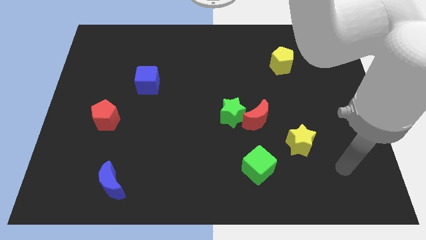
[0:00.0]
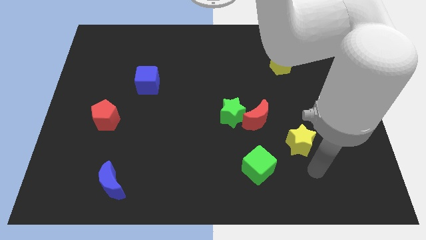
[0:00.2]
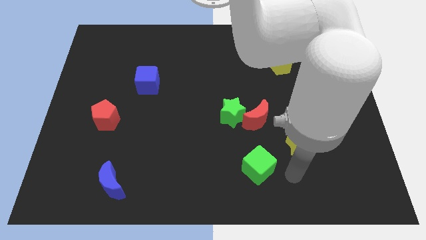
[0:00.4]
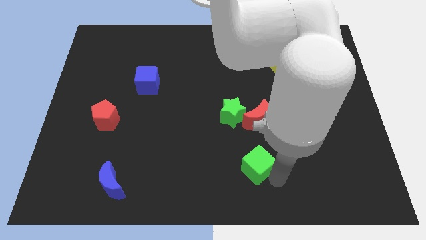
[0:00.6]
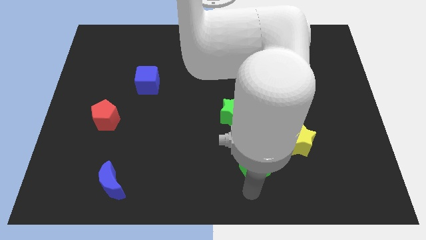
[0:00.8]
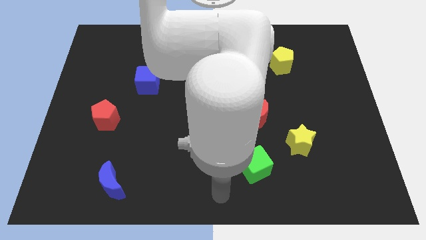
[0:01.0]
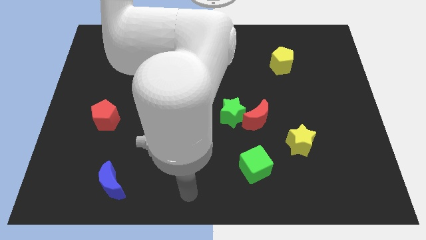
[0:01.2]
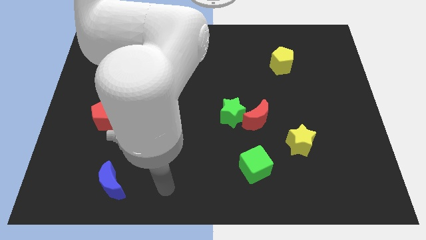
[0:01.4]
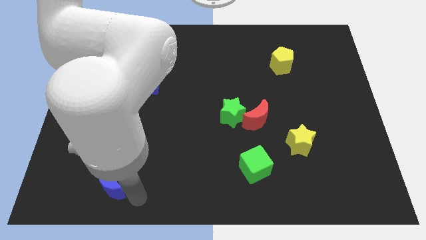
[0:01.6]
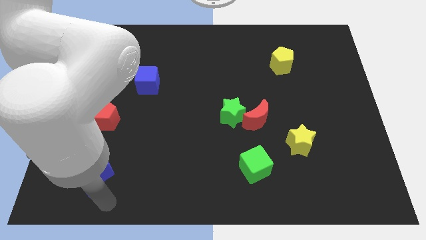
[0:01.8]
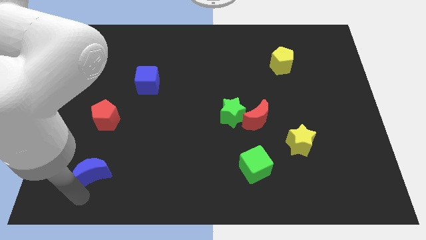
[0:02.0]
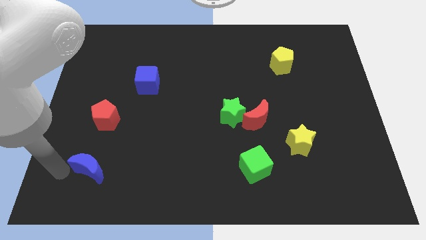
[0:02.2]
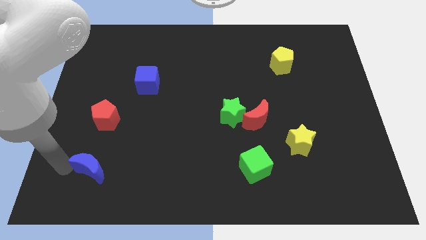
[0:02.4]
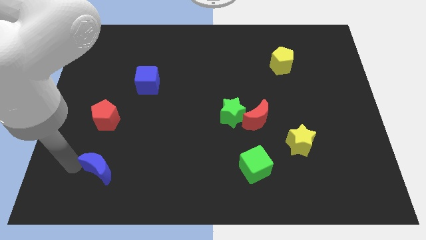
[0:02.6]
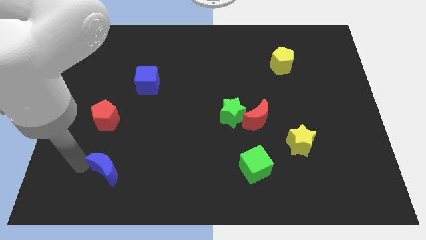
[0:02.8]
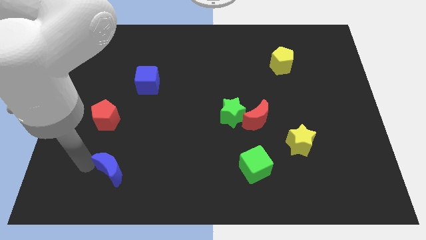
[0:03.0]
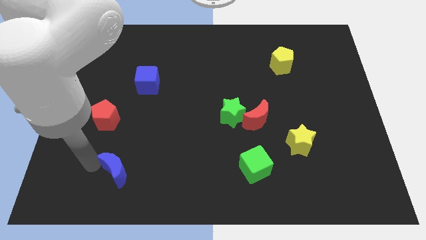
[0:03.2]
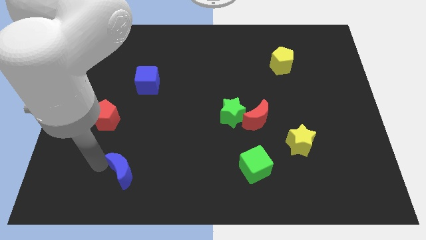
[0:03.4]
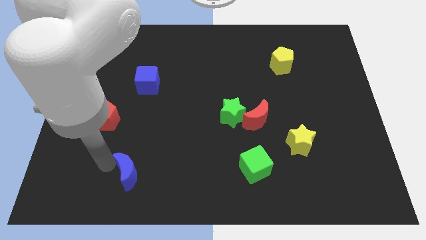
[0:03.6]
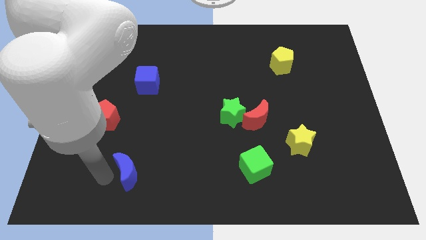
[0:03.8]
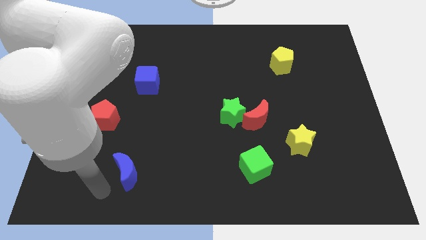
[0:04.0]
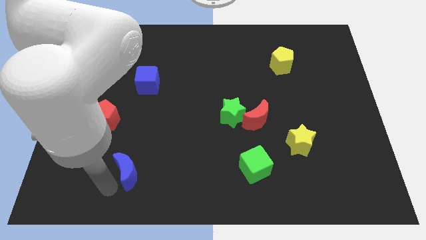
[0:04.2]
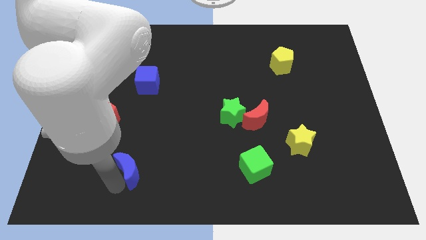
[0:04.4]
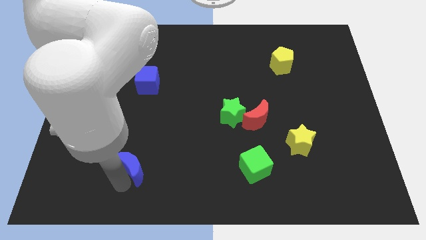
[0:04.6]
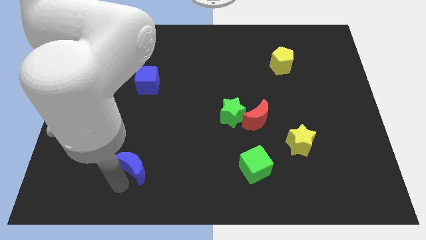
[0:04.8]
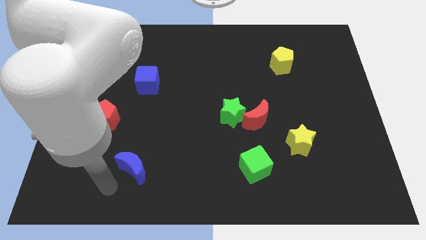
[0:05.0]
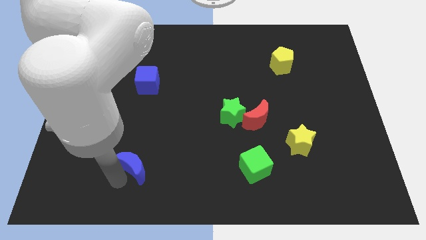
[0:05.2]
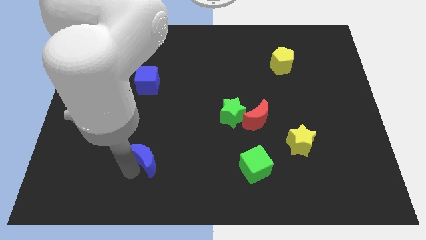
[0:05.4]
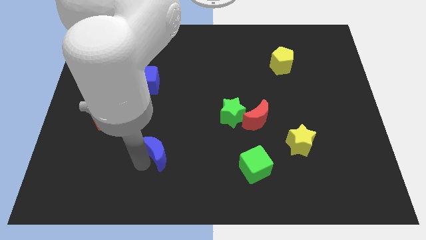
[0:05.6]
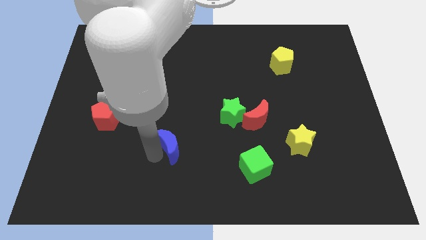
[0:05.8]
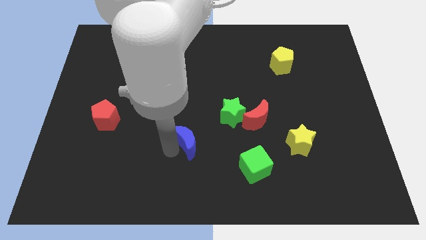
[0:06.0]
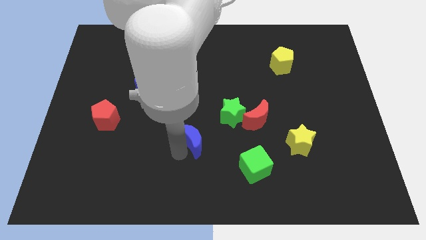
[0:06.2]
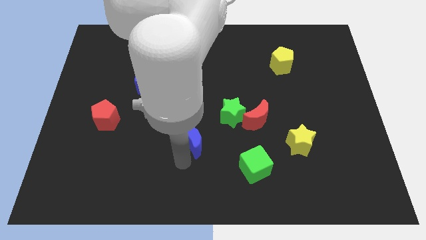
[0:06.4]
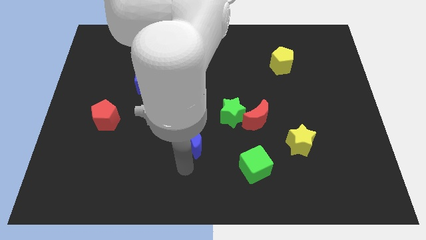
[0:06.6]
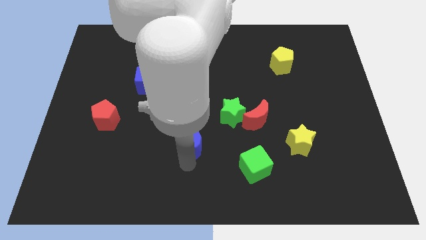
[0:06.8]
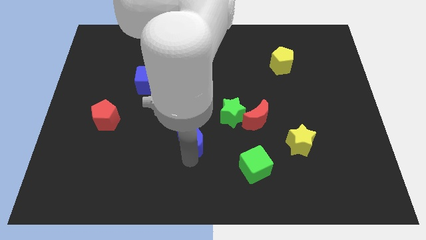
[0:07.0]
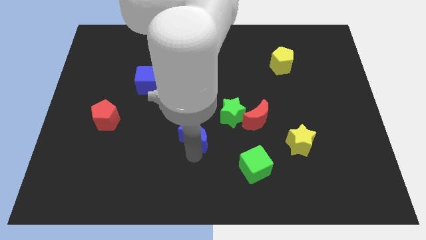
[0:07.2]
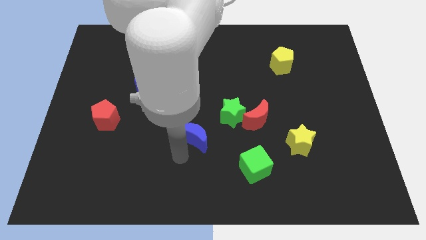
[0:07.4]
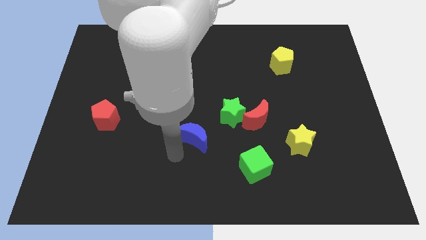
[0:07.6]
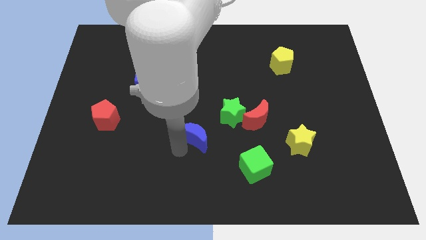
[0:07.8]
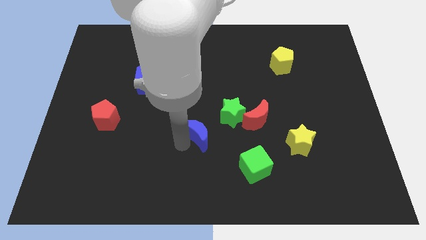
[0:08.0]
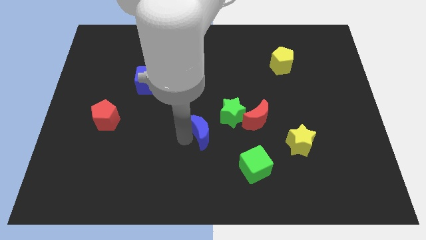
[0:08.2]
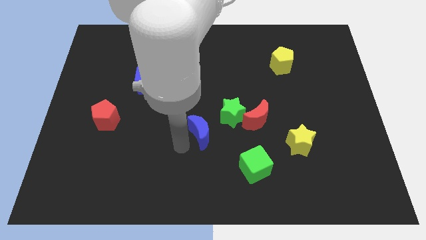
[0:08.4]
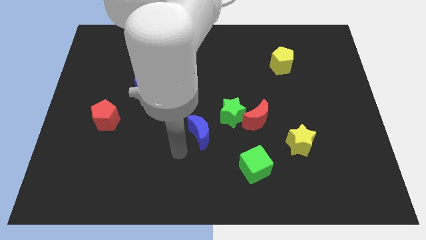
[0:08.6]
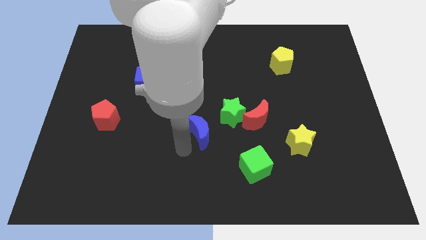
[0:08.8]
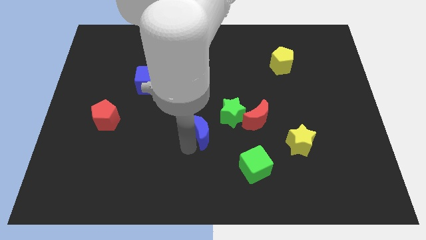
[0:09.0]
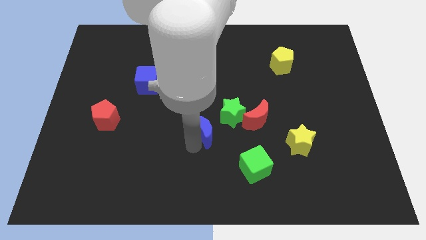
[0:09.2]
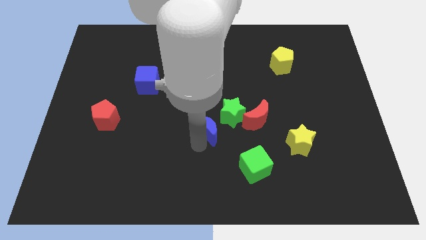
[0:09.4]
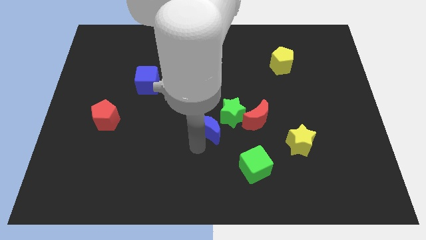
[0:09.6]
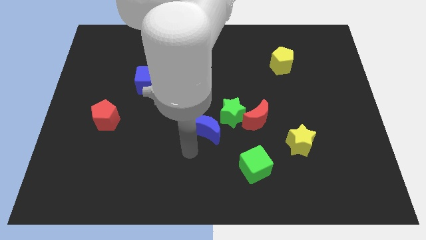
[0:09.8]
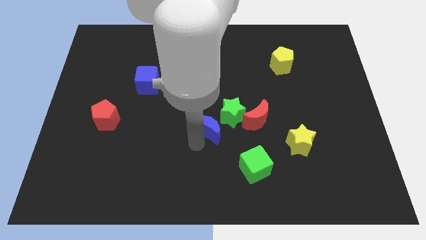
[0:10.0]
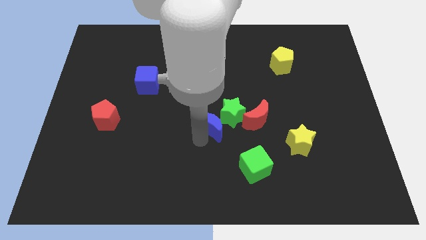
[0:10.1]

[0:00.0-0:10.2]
push the blue moon to the green star

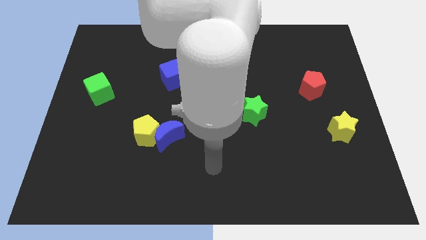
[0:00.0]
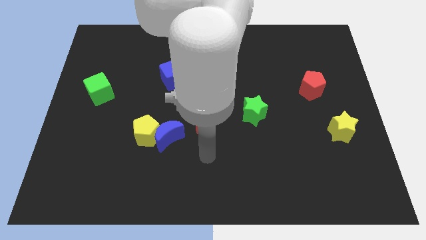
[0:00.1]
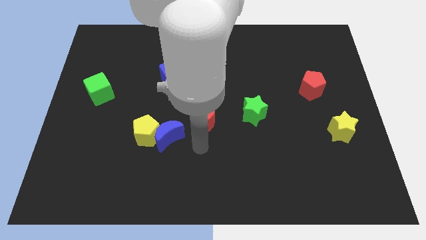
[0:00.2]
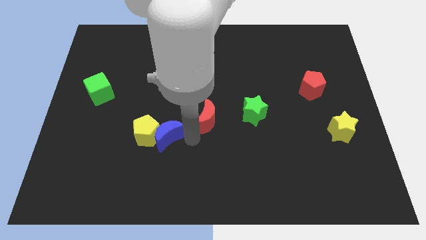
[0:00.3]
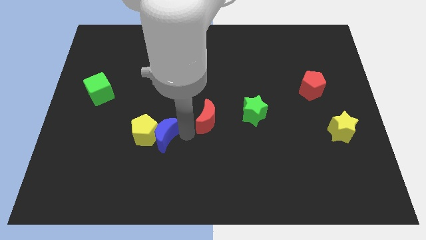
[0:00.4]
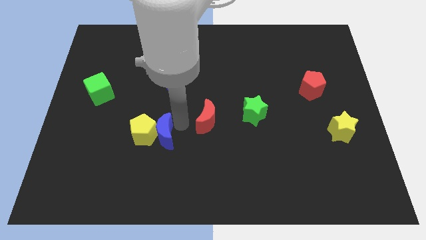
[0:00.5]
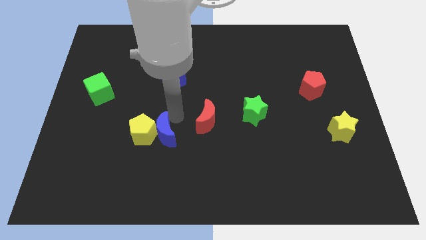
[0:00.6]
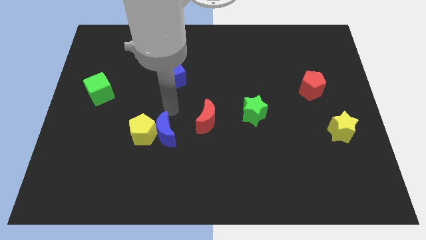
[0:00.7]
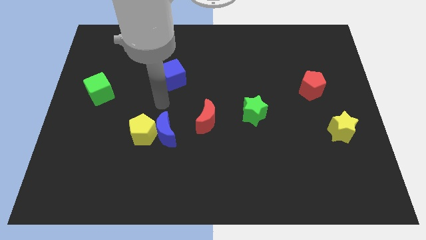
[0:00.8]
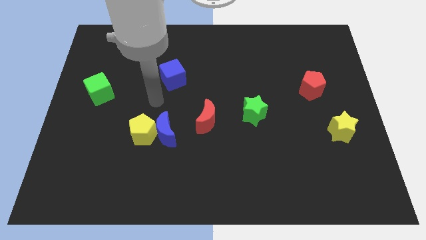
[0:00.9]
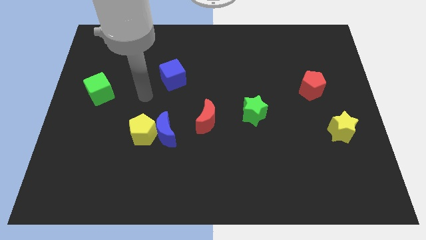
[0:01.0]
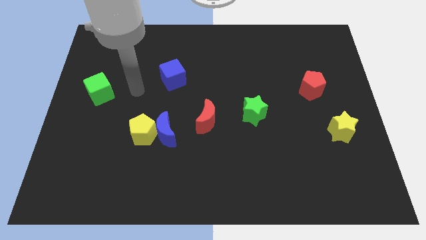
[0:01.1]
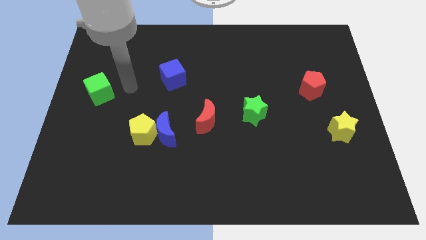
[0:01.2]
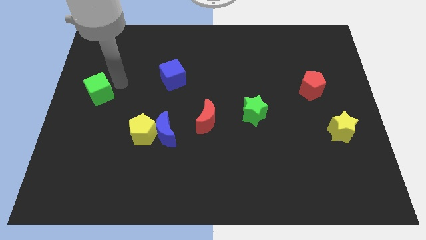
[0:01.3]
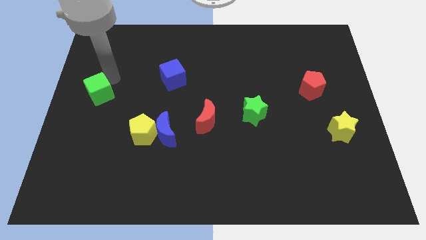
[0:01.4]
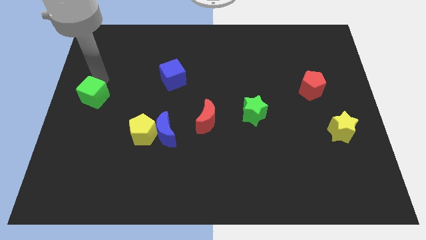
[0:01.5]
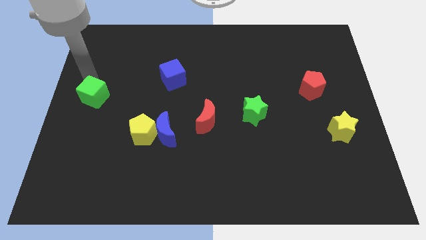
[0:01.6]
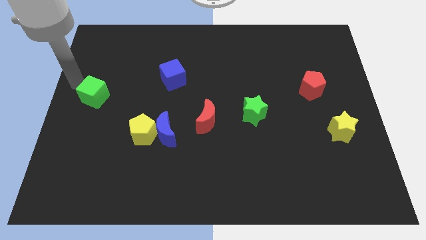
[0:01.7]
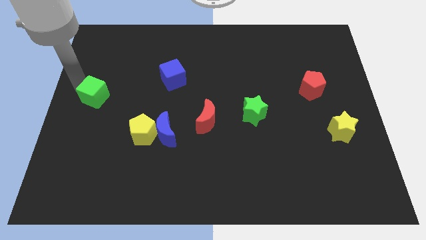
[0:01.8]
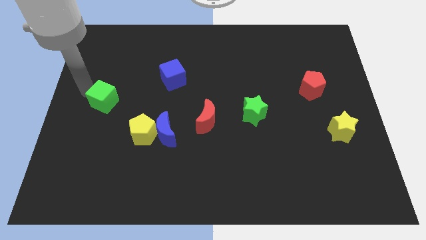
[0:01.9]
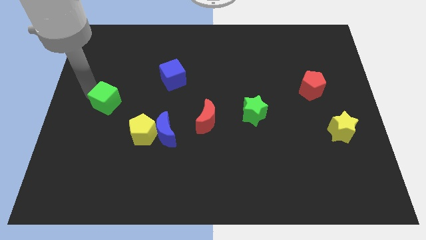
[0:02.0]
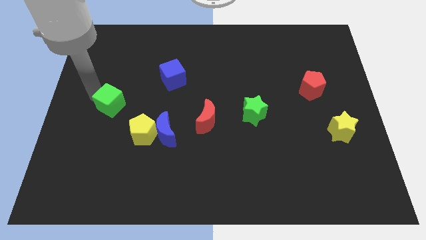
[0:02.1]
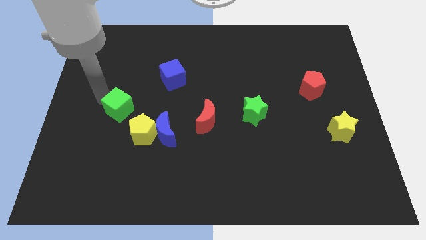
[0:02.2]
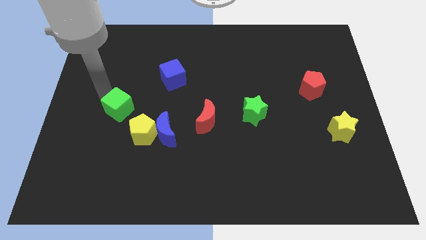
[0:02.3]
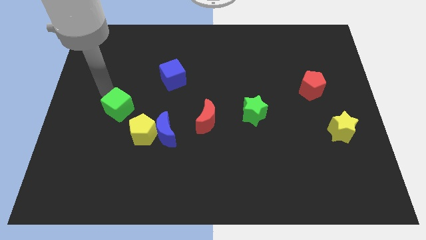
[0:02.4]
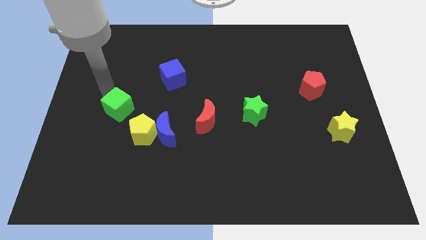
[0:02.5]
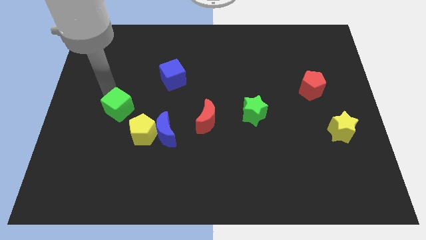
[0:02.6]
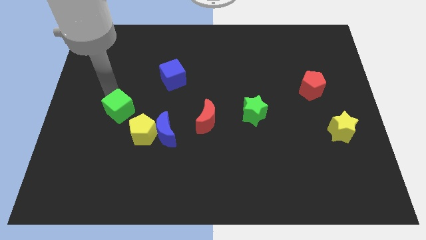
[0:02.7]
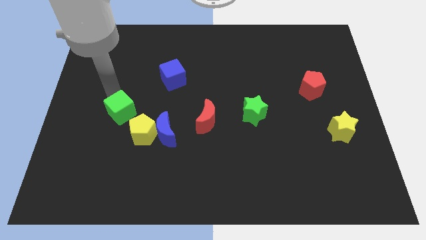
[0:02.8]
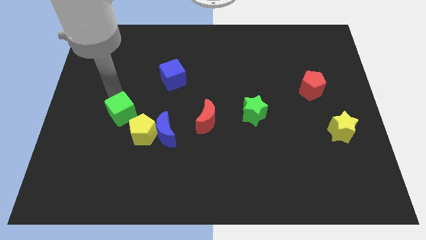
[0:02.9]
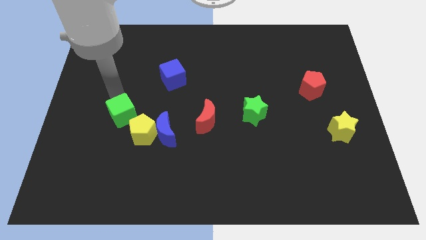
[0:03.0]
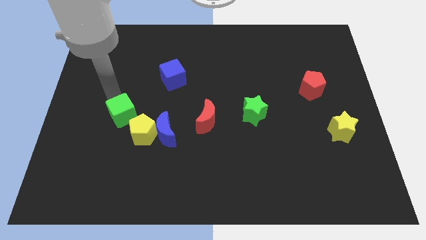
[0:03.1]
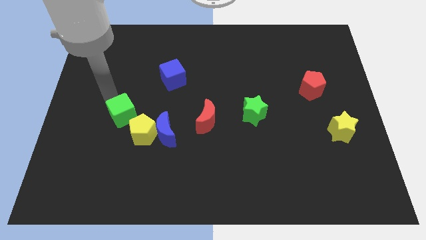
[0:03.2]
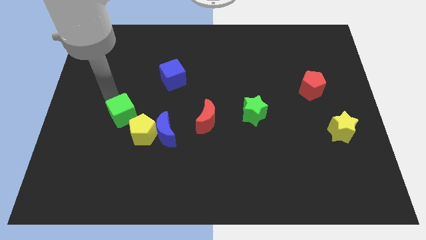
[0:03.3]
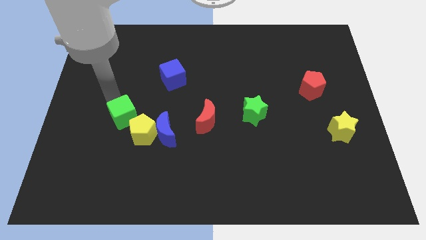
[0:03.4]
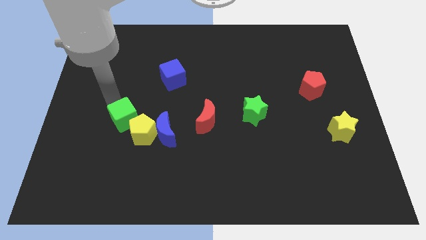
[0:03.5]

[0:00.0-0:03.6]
push the green cube to the yellow pentagon
